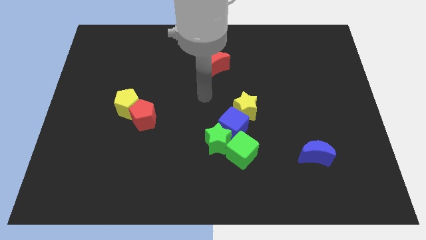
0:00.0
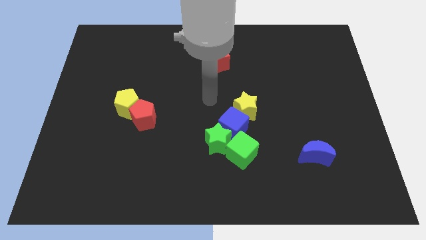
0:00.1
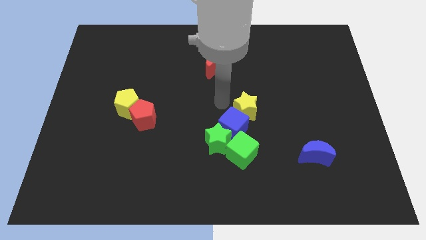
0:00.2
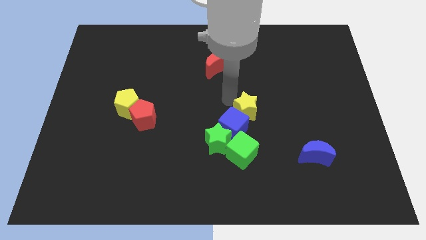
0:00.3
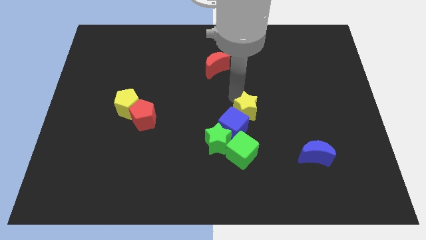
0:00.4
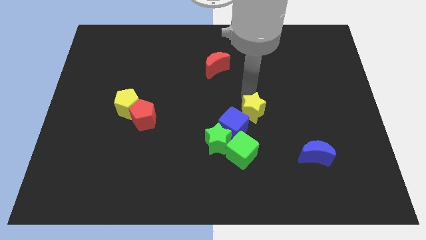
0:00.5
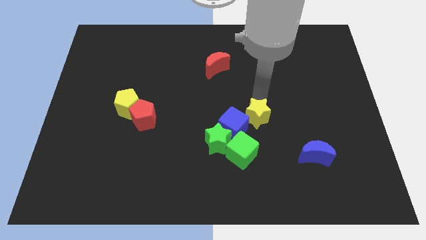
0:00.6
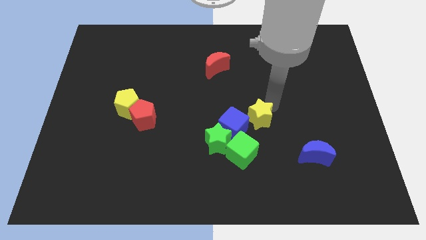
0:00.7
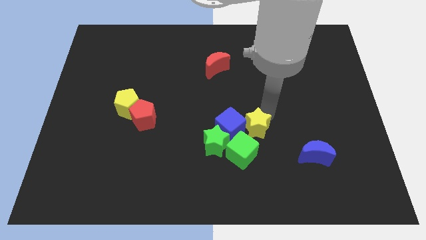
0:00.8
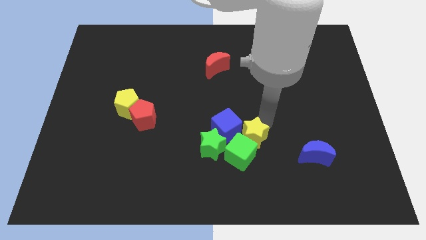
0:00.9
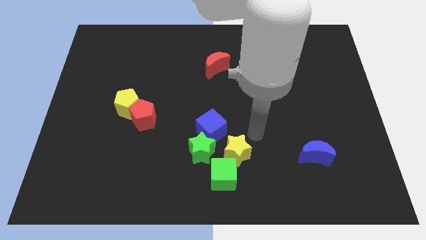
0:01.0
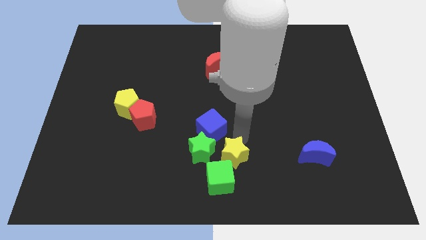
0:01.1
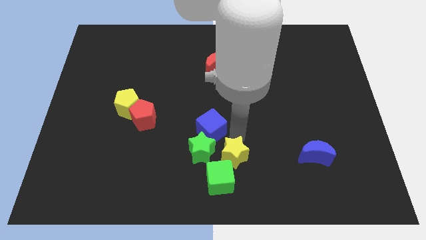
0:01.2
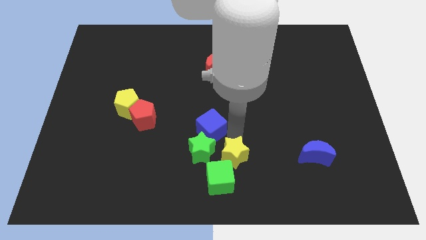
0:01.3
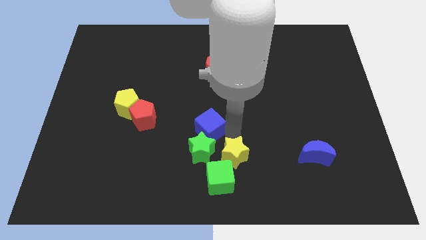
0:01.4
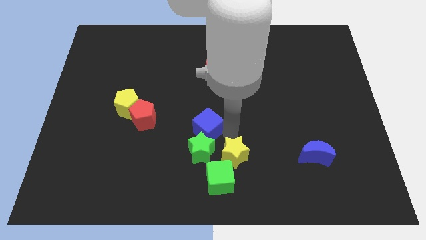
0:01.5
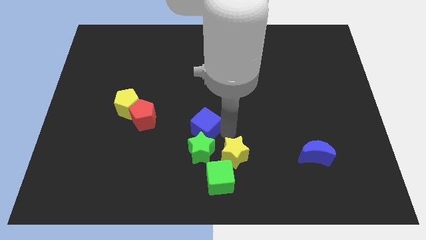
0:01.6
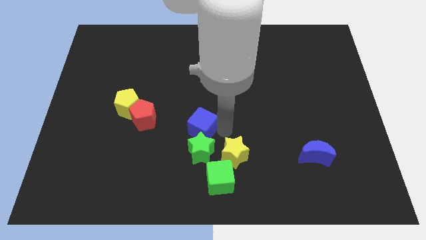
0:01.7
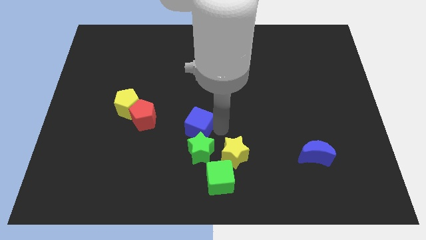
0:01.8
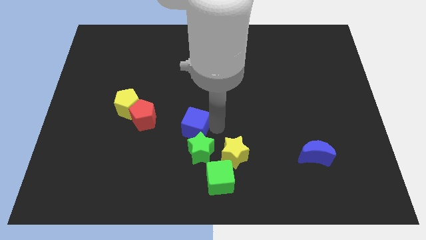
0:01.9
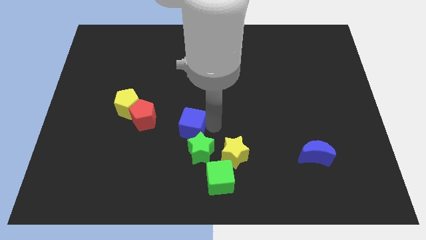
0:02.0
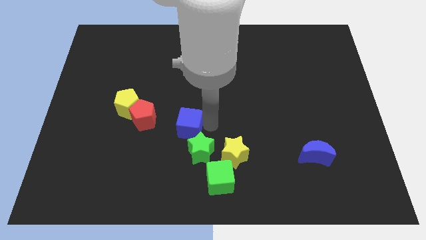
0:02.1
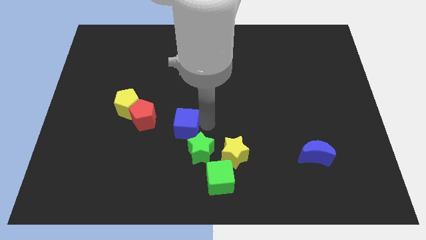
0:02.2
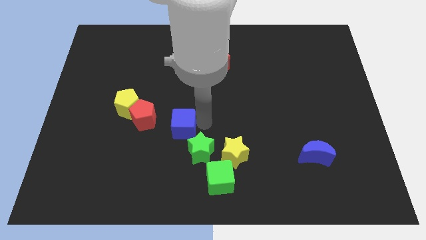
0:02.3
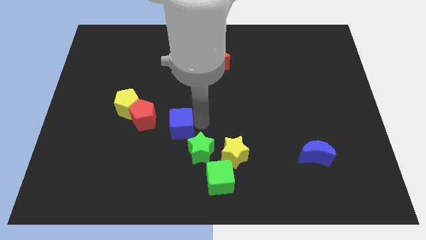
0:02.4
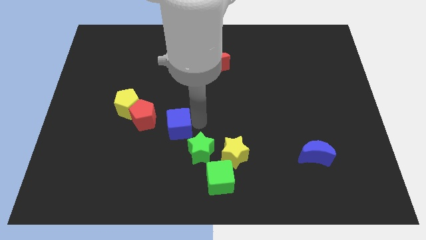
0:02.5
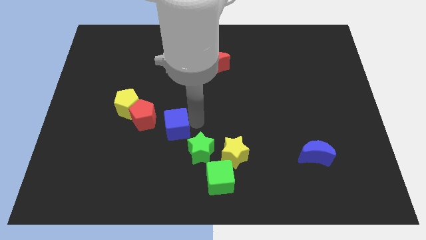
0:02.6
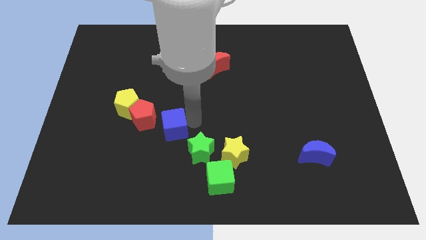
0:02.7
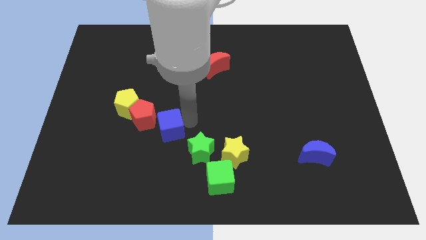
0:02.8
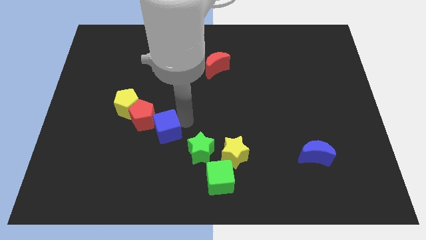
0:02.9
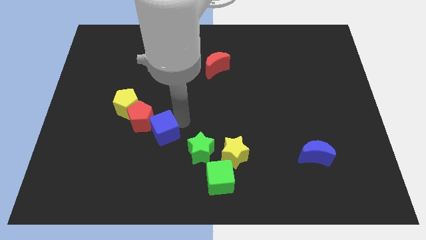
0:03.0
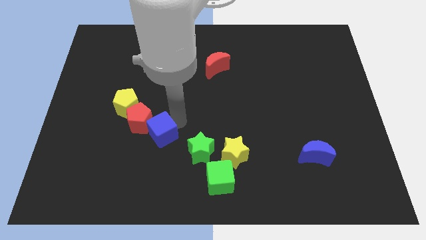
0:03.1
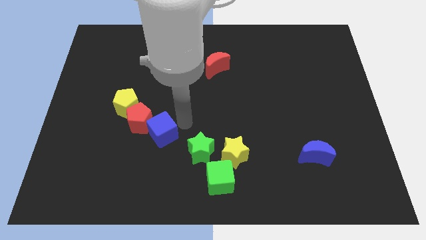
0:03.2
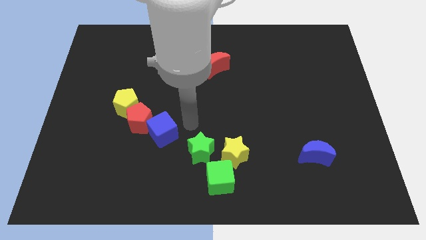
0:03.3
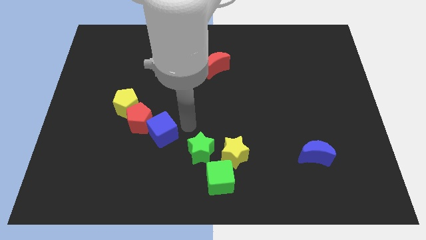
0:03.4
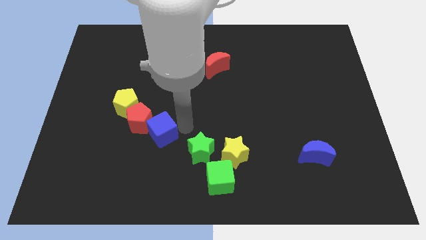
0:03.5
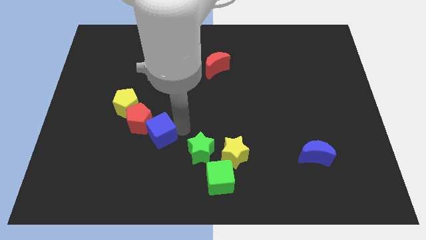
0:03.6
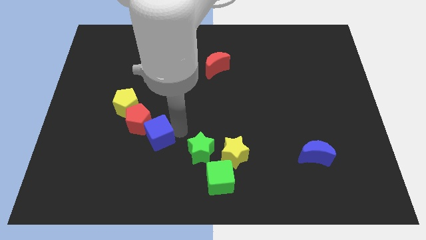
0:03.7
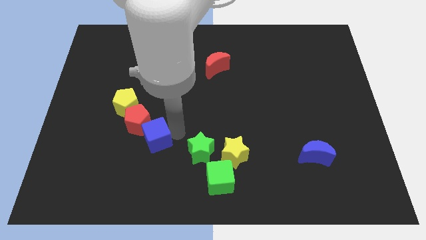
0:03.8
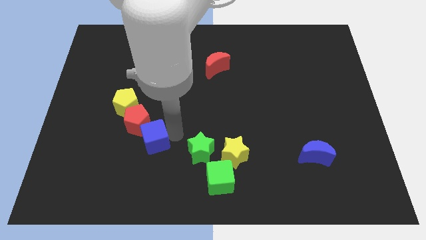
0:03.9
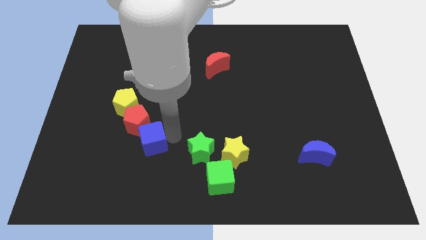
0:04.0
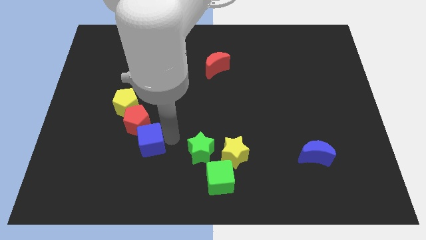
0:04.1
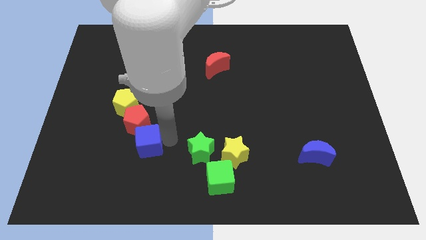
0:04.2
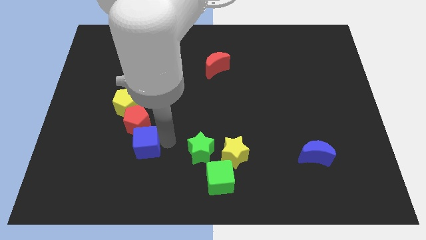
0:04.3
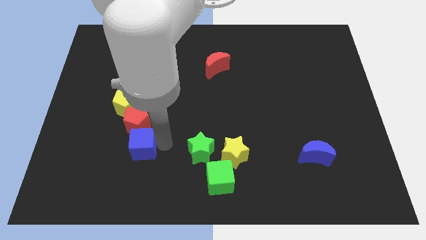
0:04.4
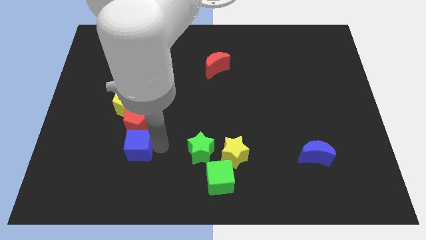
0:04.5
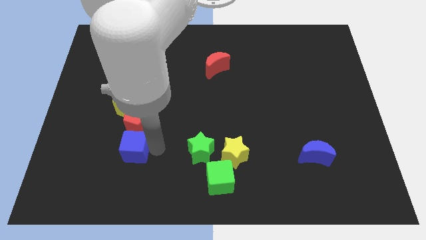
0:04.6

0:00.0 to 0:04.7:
push the blue cube left

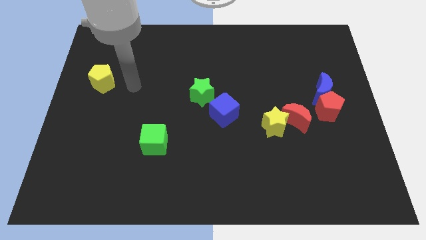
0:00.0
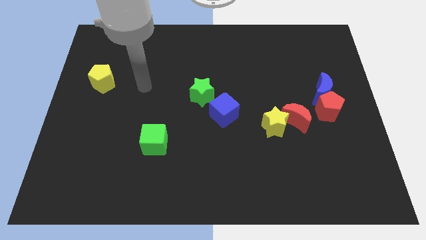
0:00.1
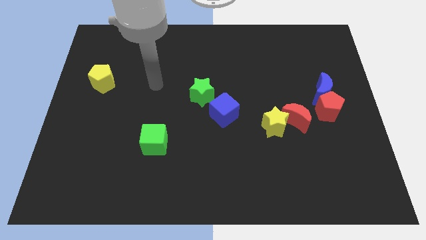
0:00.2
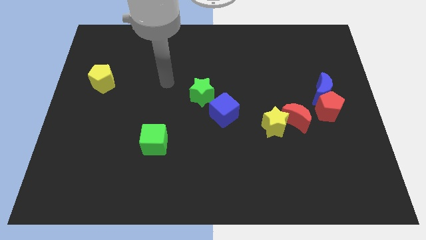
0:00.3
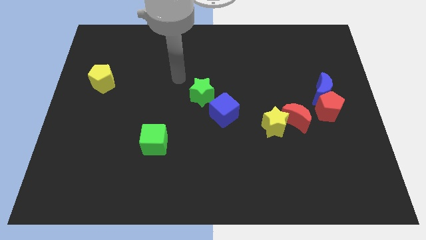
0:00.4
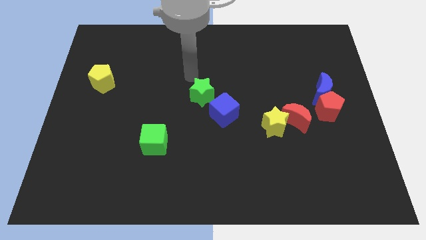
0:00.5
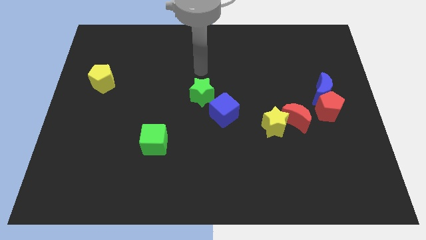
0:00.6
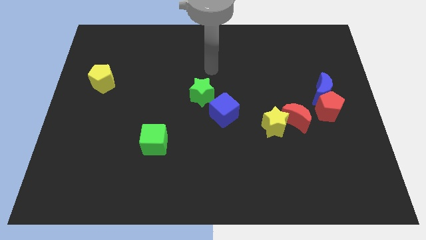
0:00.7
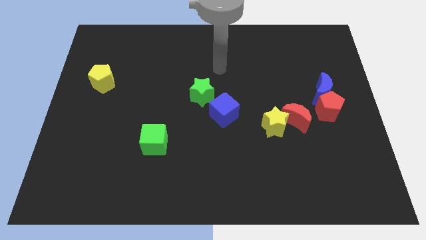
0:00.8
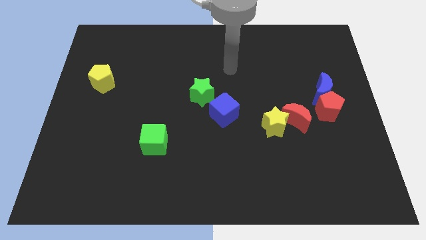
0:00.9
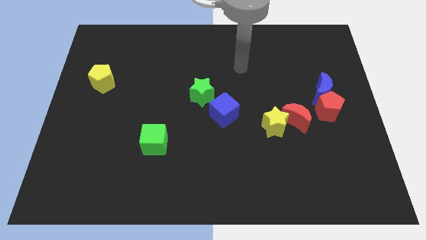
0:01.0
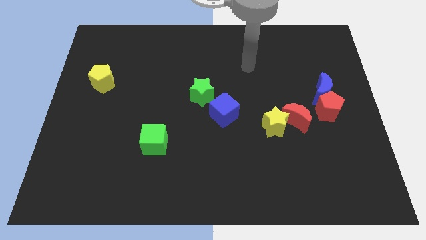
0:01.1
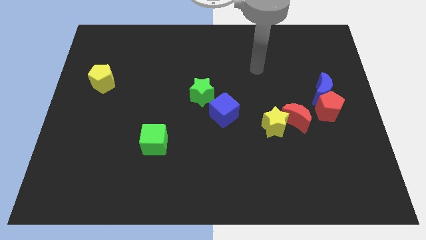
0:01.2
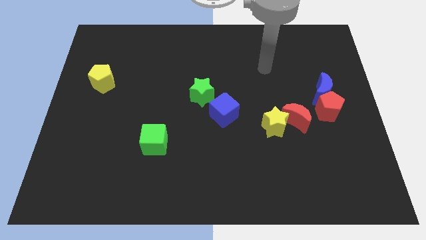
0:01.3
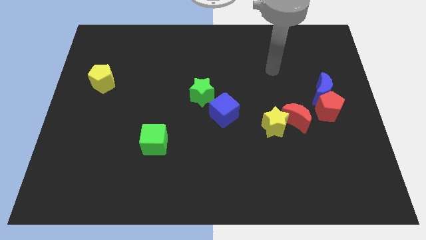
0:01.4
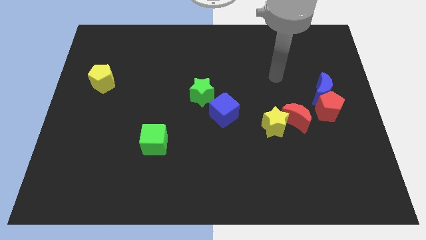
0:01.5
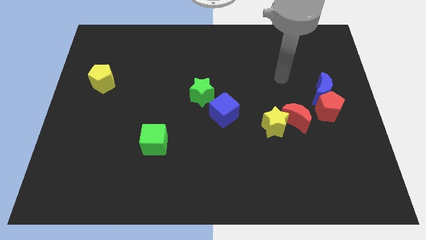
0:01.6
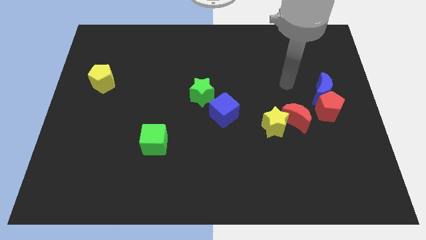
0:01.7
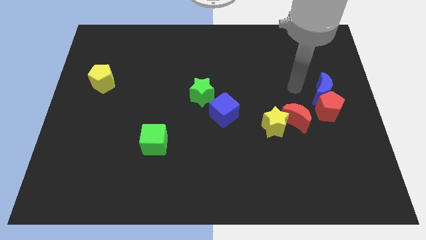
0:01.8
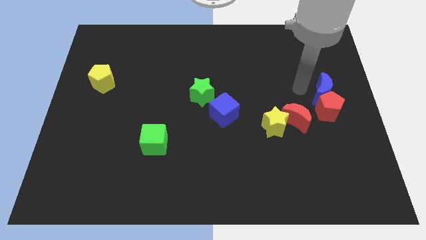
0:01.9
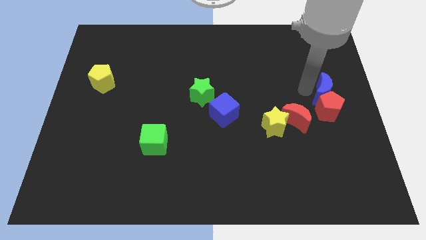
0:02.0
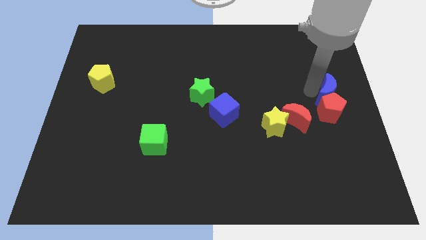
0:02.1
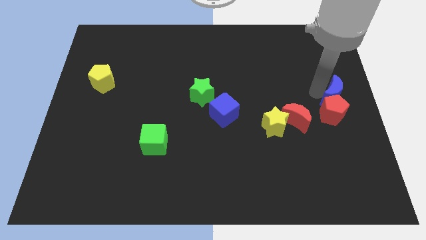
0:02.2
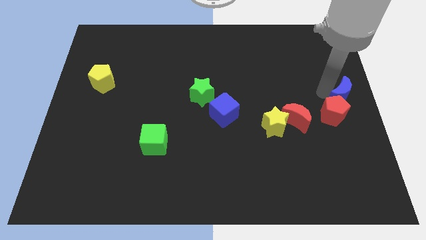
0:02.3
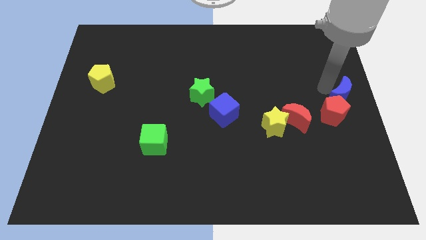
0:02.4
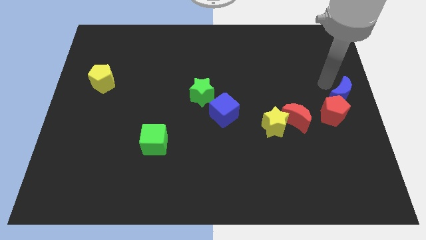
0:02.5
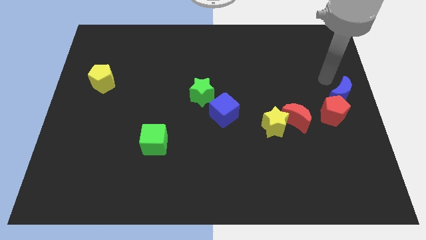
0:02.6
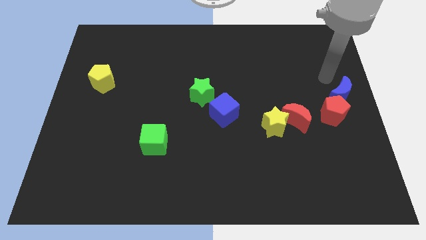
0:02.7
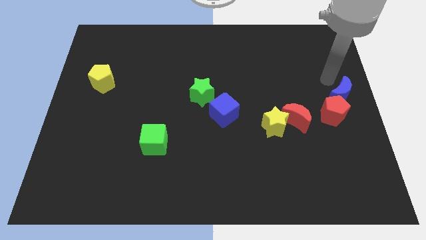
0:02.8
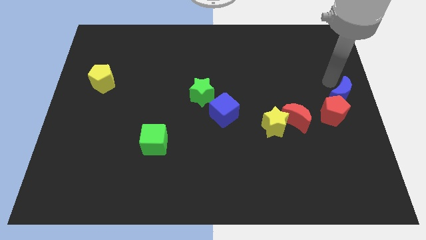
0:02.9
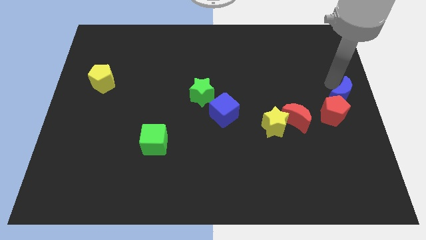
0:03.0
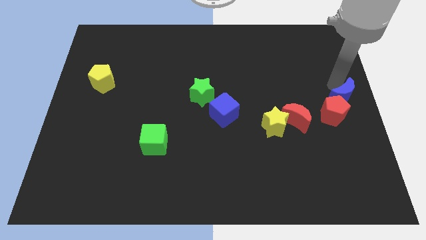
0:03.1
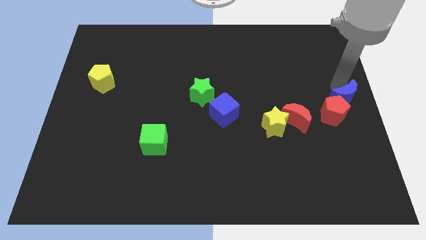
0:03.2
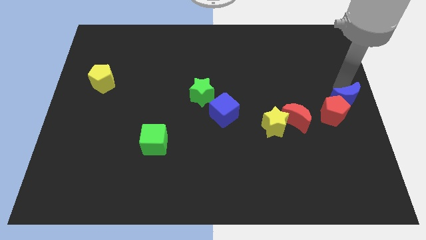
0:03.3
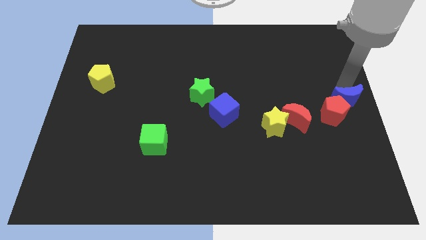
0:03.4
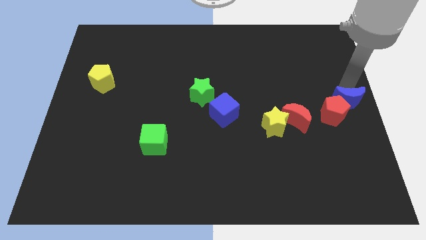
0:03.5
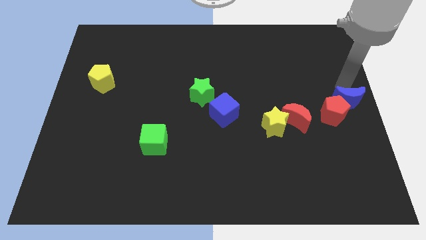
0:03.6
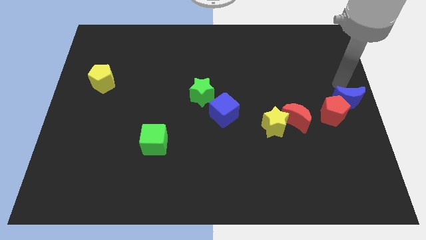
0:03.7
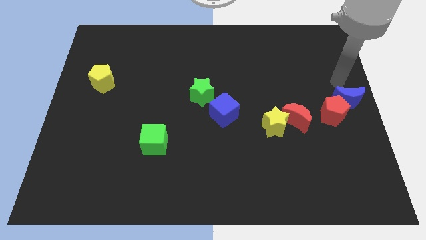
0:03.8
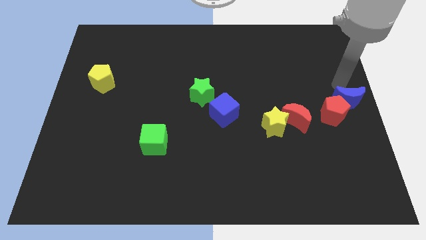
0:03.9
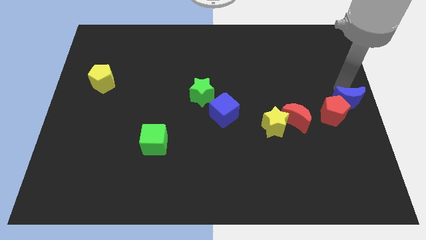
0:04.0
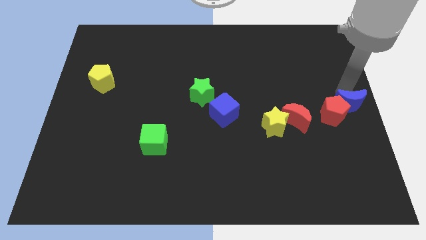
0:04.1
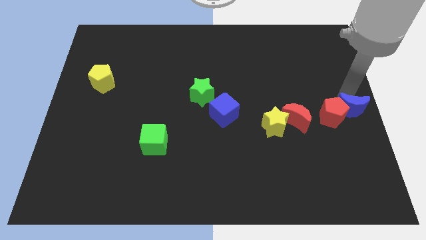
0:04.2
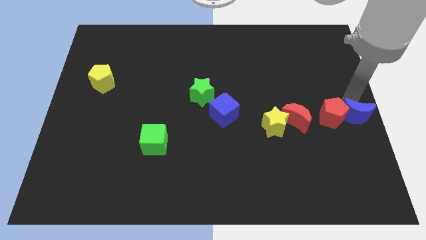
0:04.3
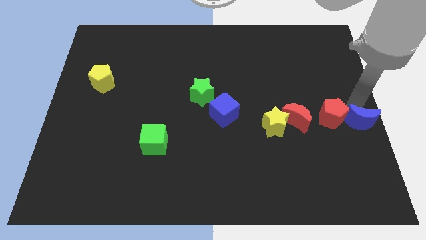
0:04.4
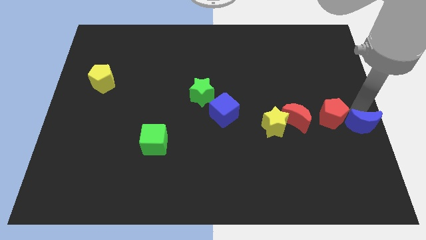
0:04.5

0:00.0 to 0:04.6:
slide the blue moon slightly down
